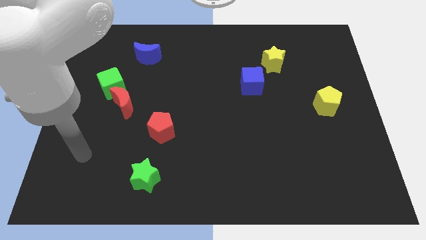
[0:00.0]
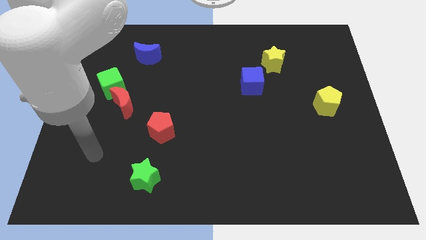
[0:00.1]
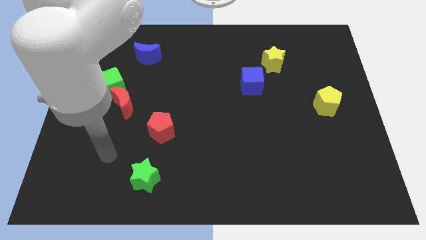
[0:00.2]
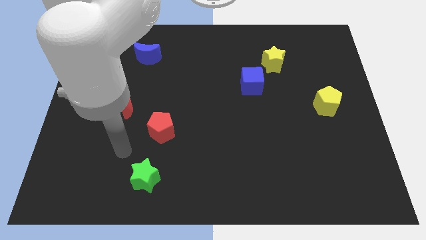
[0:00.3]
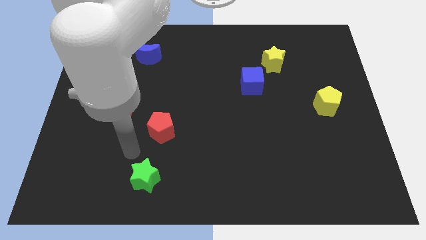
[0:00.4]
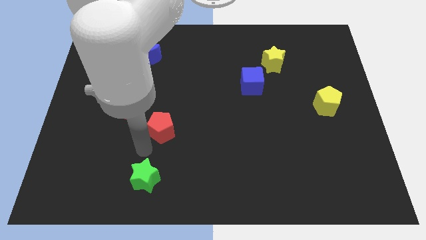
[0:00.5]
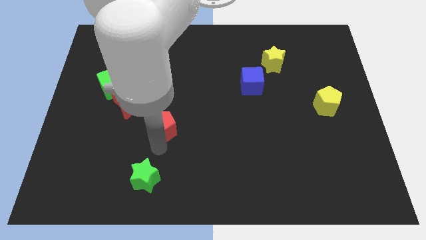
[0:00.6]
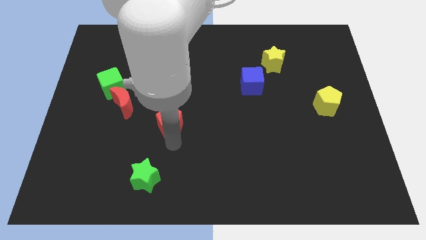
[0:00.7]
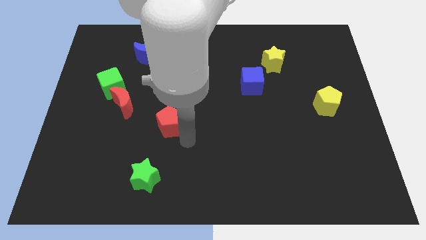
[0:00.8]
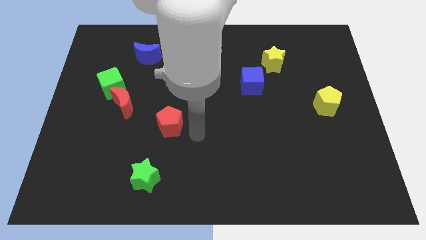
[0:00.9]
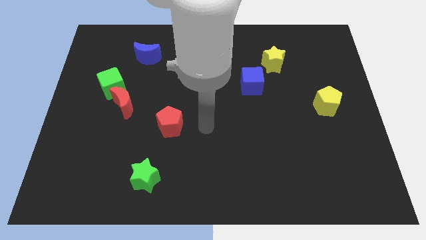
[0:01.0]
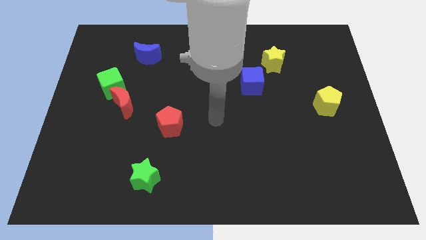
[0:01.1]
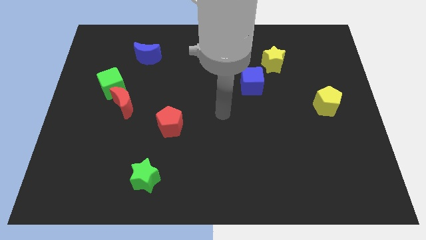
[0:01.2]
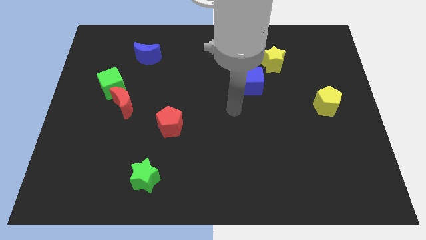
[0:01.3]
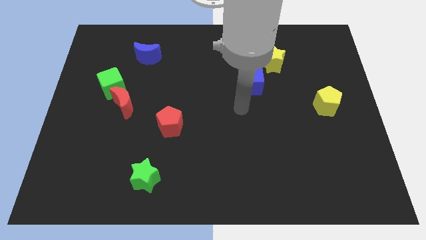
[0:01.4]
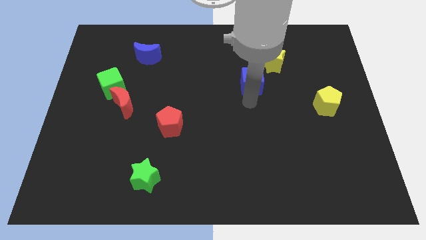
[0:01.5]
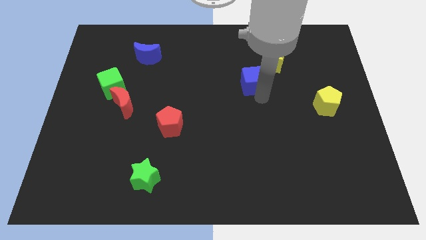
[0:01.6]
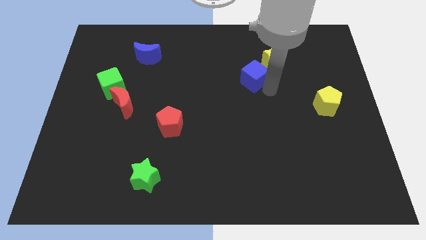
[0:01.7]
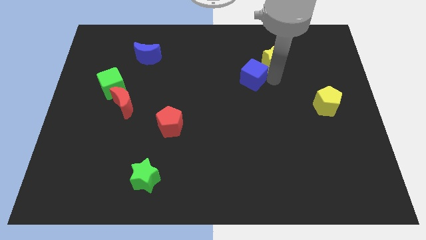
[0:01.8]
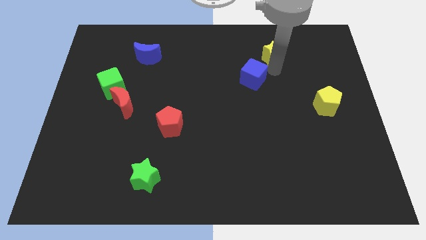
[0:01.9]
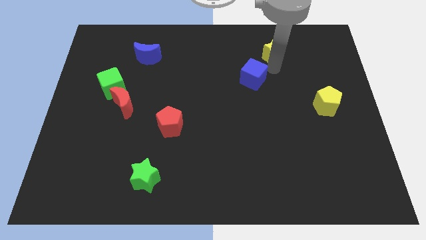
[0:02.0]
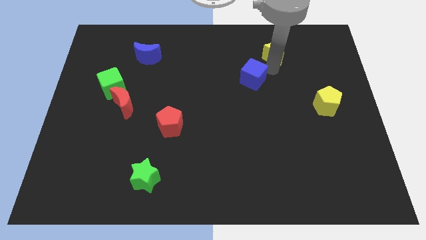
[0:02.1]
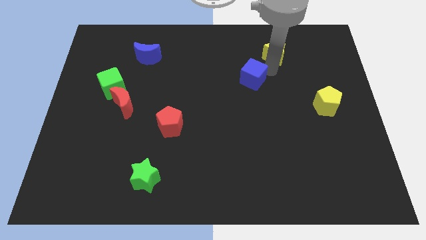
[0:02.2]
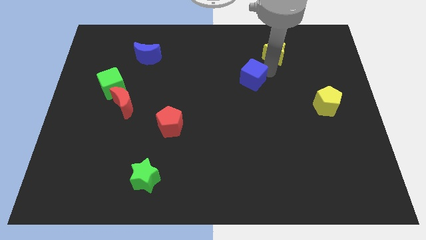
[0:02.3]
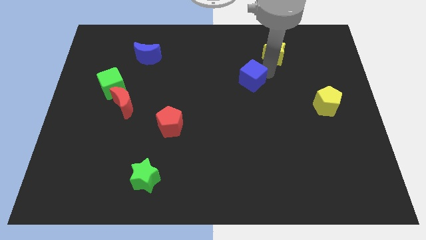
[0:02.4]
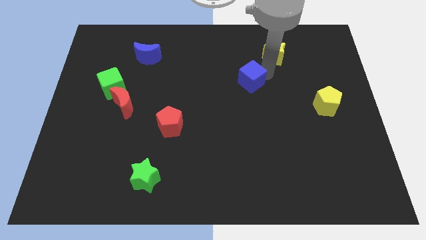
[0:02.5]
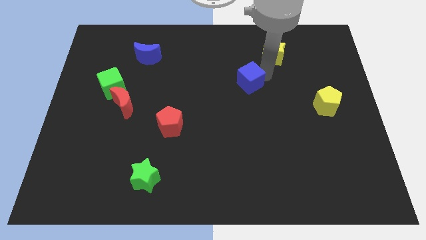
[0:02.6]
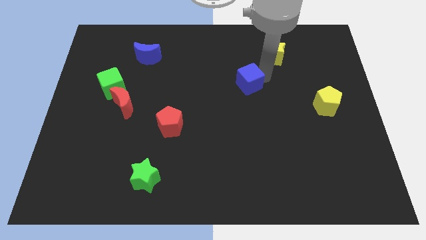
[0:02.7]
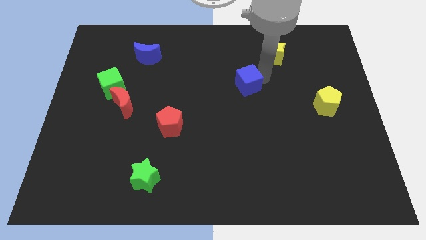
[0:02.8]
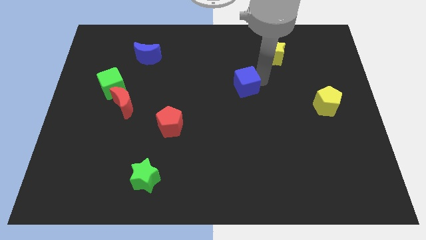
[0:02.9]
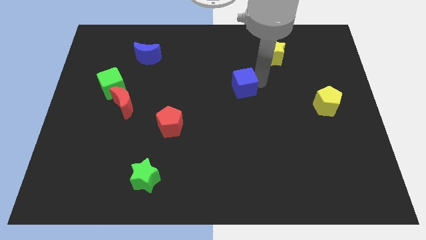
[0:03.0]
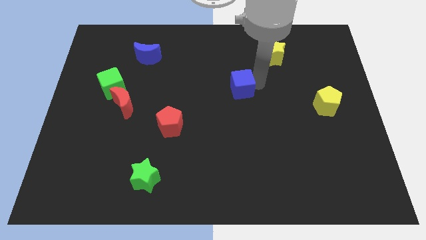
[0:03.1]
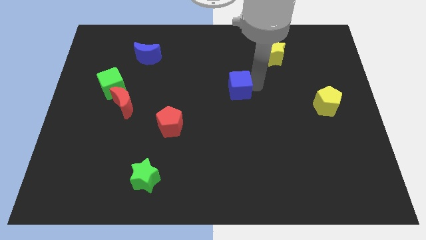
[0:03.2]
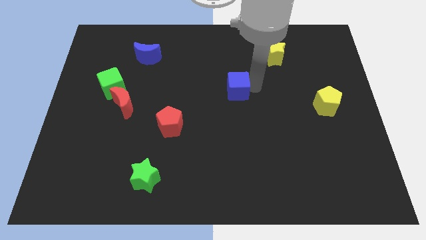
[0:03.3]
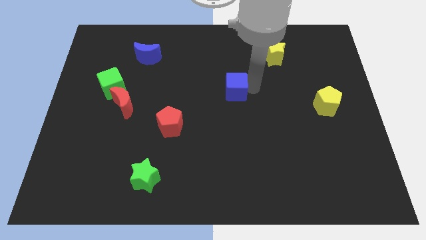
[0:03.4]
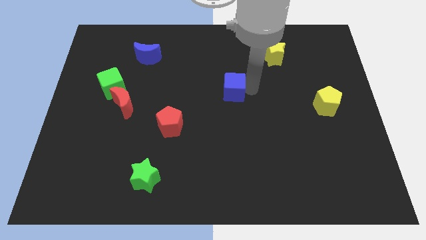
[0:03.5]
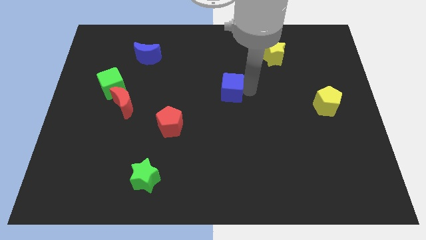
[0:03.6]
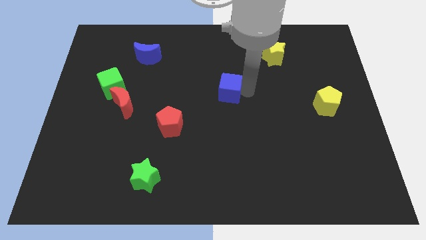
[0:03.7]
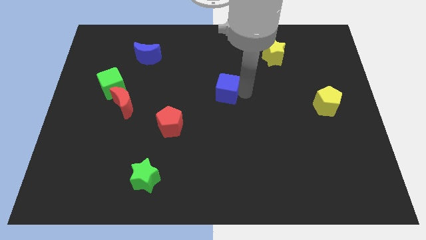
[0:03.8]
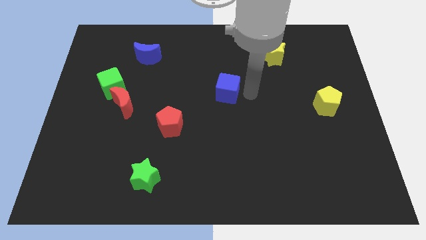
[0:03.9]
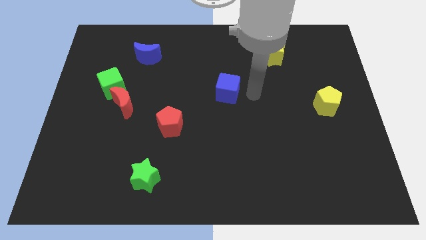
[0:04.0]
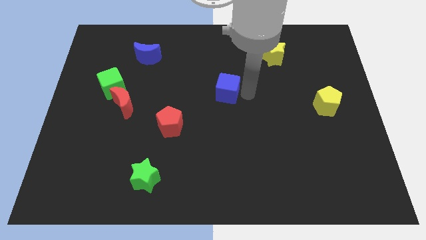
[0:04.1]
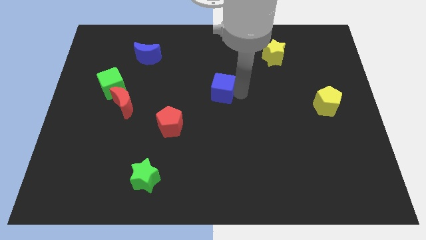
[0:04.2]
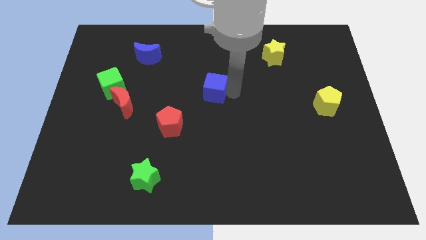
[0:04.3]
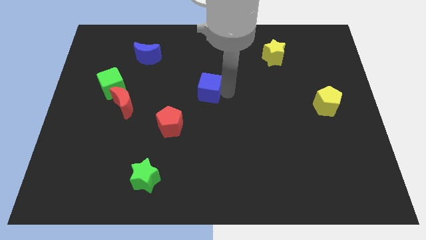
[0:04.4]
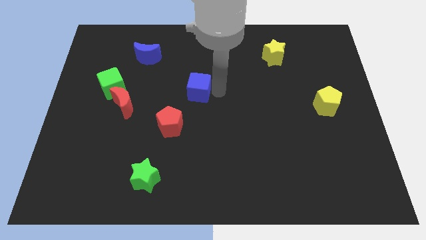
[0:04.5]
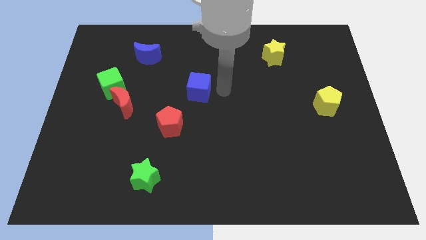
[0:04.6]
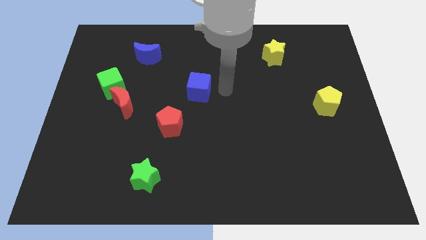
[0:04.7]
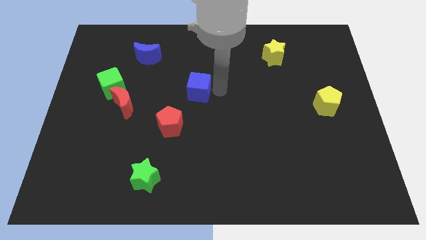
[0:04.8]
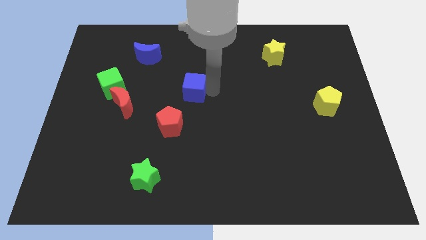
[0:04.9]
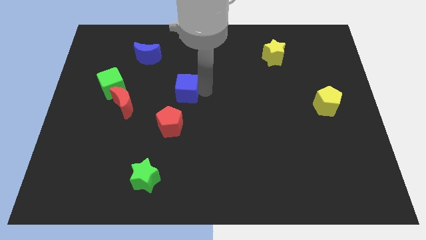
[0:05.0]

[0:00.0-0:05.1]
slide the blue cube to the top side of the red pentagon

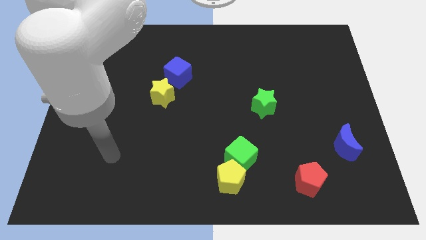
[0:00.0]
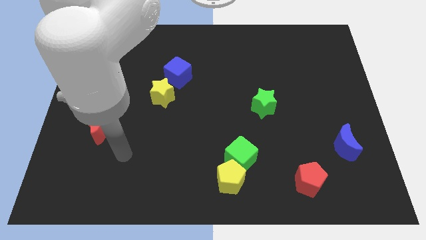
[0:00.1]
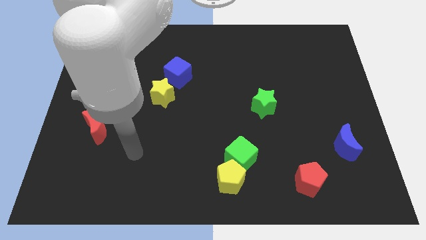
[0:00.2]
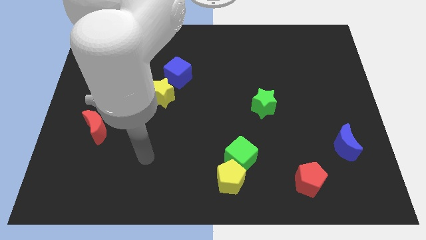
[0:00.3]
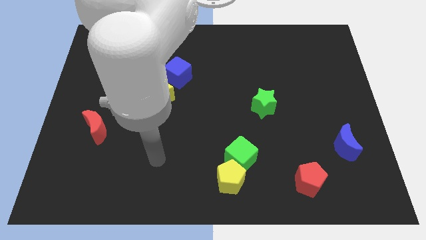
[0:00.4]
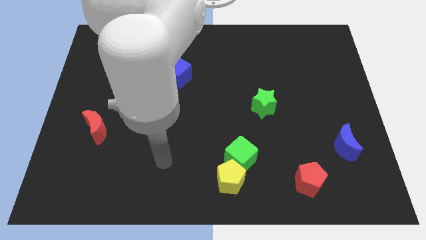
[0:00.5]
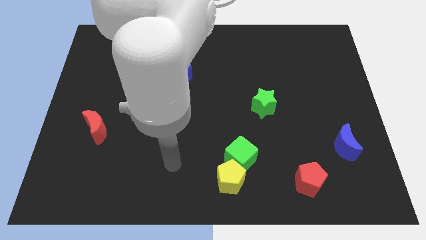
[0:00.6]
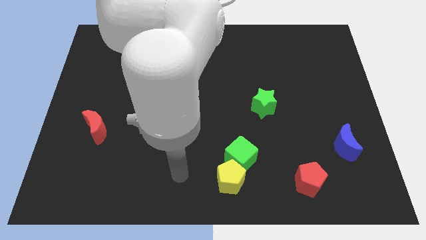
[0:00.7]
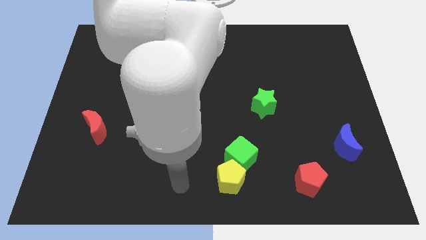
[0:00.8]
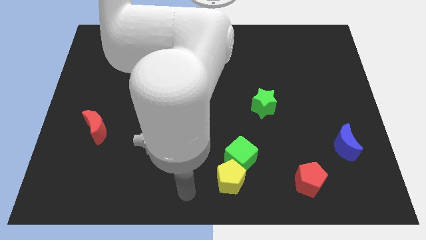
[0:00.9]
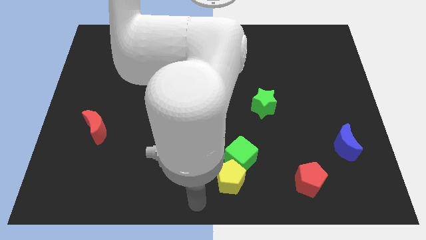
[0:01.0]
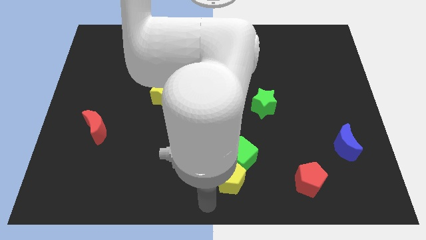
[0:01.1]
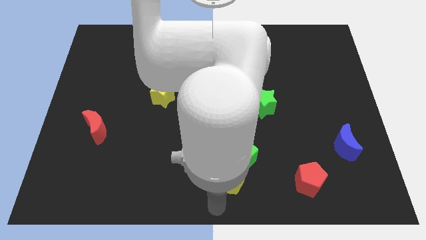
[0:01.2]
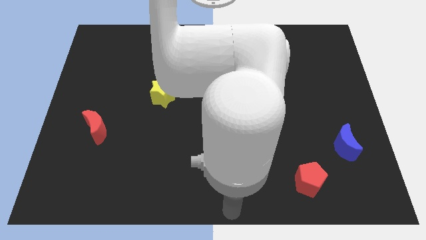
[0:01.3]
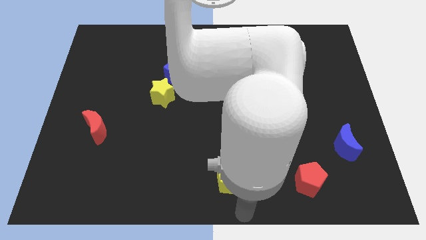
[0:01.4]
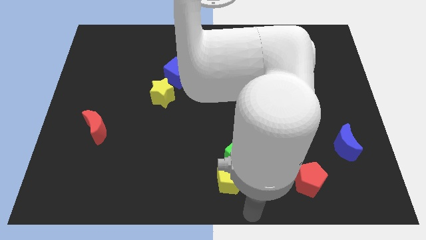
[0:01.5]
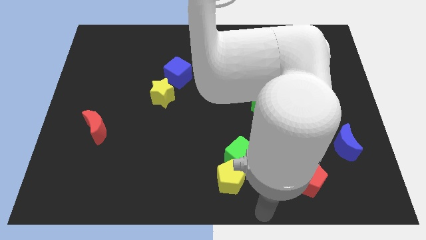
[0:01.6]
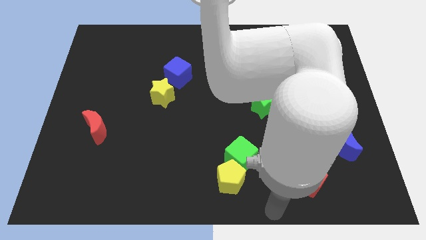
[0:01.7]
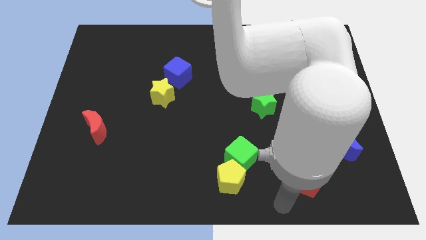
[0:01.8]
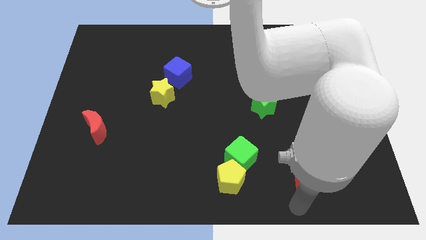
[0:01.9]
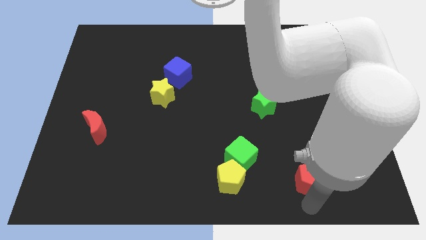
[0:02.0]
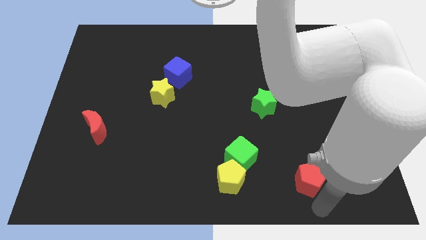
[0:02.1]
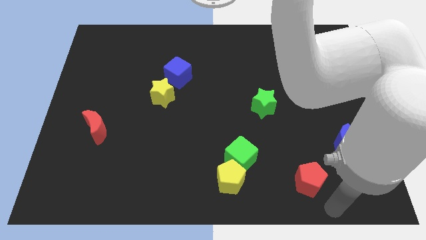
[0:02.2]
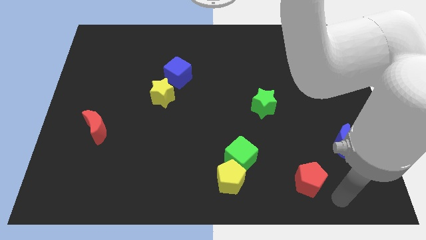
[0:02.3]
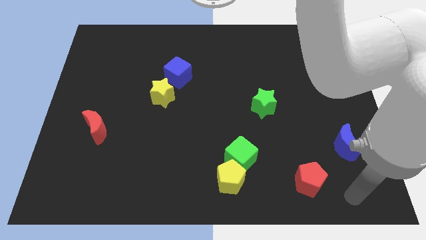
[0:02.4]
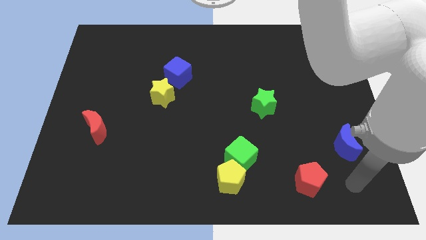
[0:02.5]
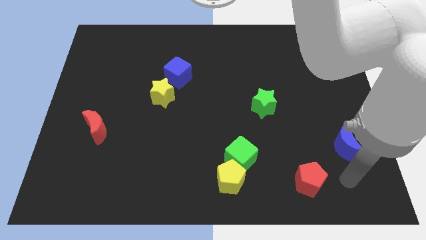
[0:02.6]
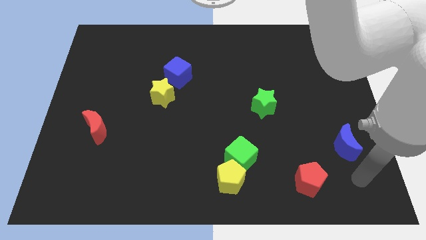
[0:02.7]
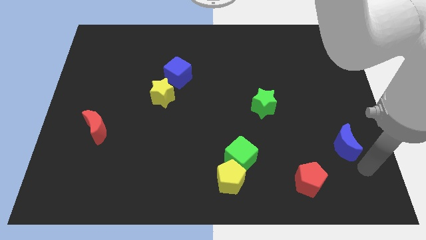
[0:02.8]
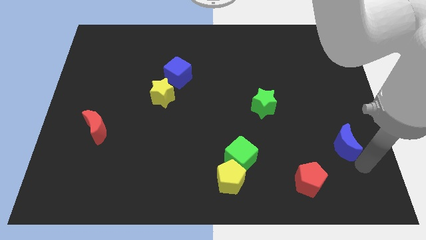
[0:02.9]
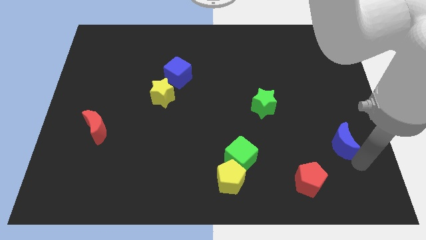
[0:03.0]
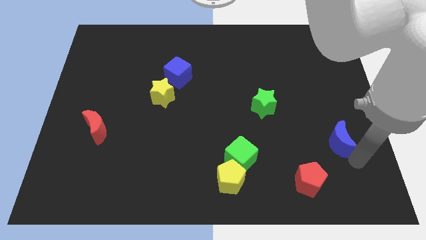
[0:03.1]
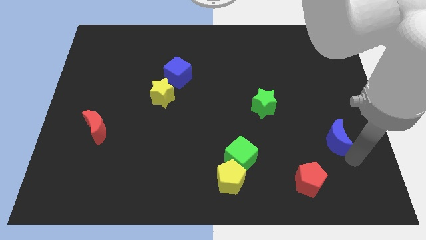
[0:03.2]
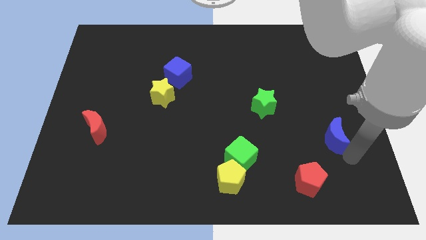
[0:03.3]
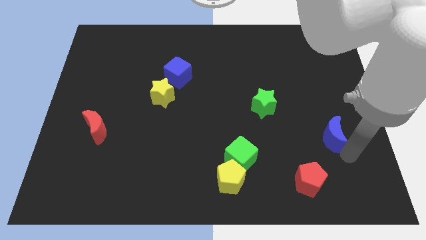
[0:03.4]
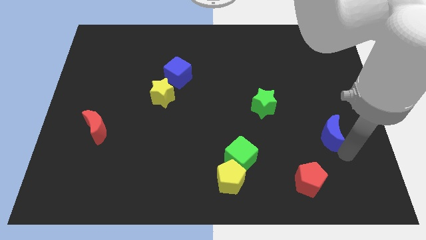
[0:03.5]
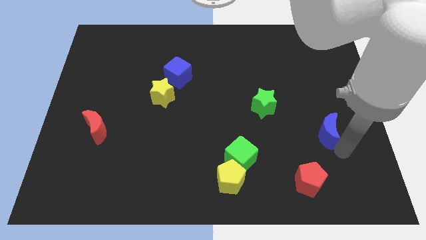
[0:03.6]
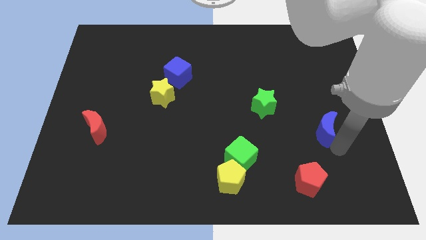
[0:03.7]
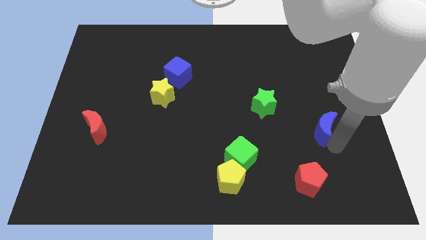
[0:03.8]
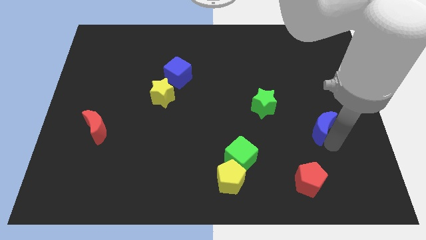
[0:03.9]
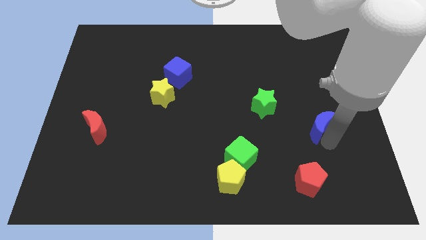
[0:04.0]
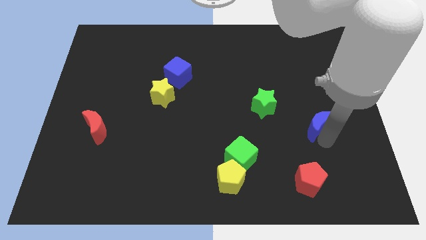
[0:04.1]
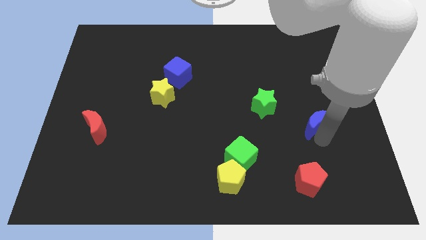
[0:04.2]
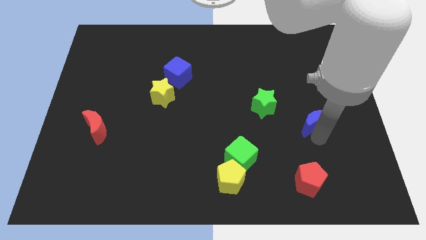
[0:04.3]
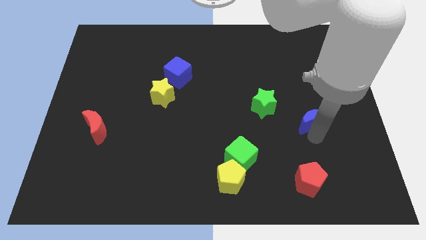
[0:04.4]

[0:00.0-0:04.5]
move the blue moon to the right side of the green star
